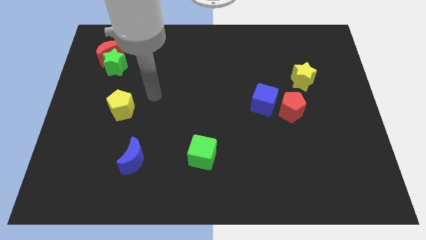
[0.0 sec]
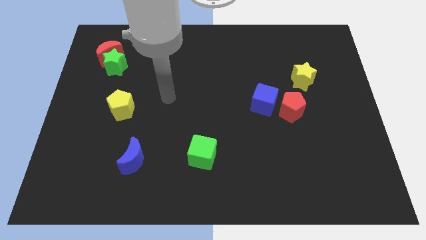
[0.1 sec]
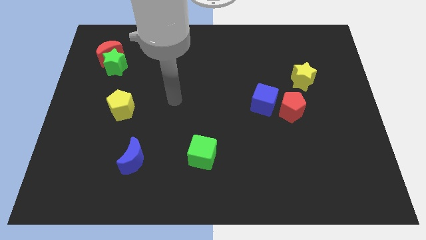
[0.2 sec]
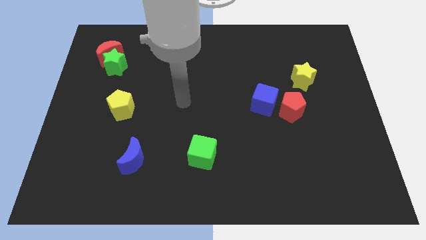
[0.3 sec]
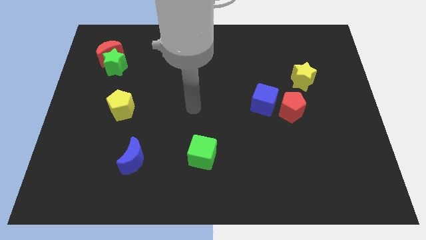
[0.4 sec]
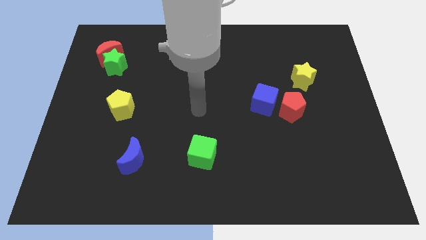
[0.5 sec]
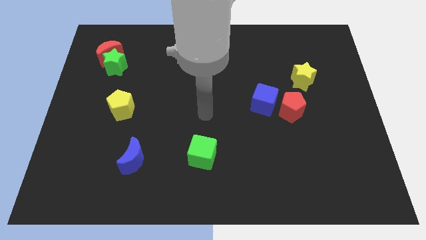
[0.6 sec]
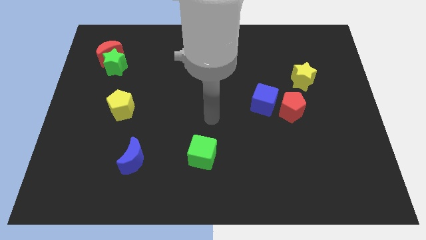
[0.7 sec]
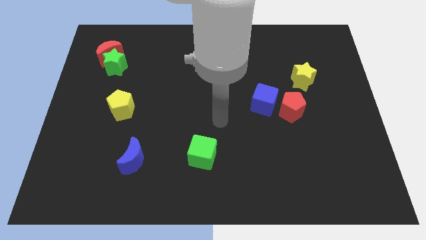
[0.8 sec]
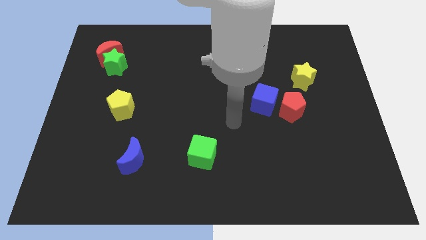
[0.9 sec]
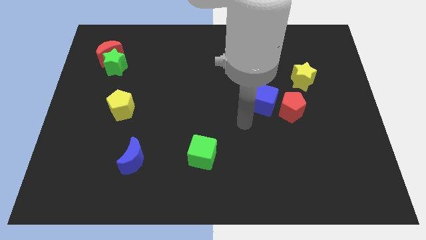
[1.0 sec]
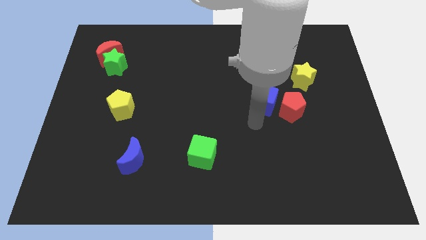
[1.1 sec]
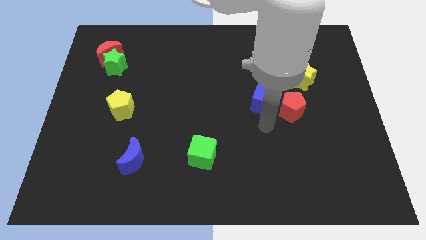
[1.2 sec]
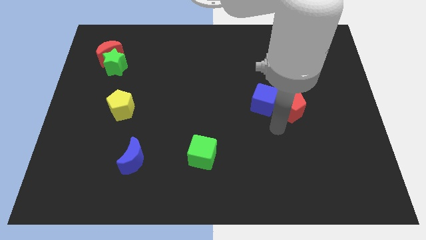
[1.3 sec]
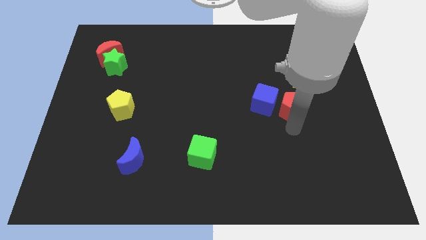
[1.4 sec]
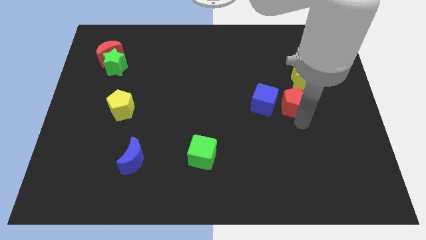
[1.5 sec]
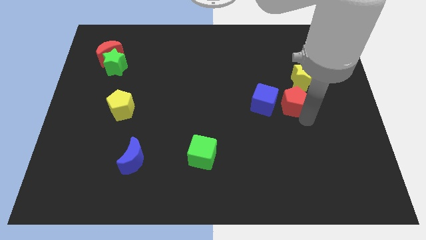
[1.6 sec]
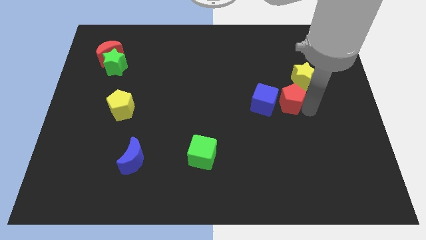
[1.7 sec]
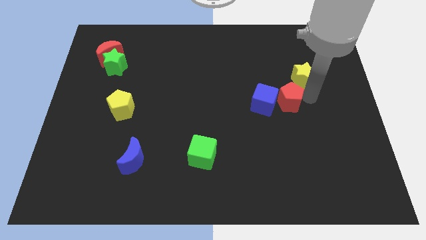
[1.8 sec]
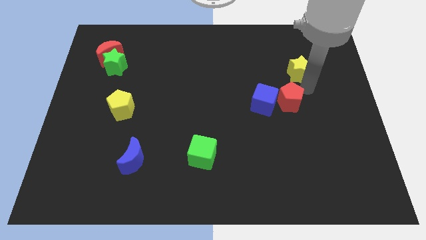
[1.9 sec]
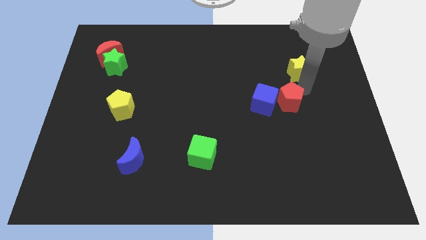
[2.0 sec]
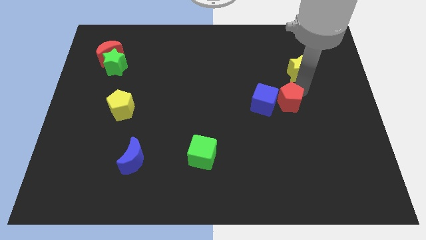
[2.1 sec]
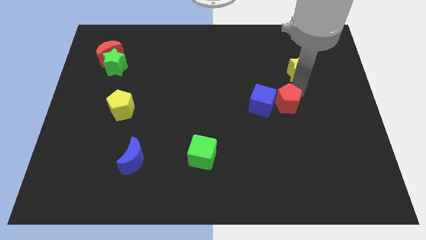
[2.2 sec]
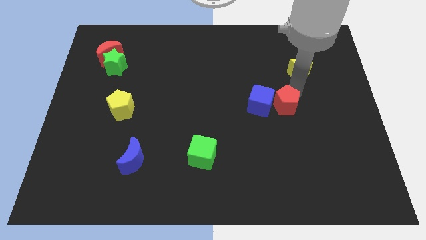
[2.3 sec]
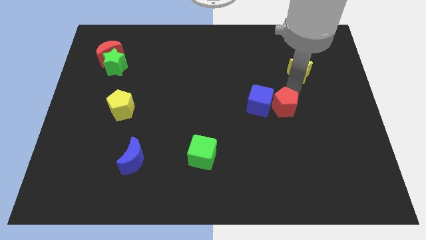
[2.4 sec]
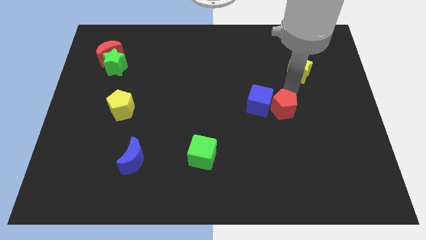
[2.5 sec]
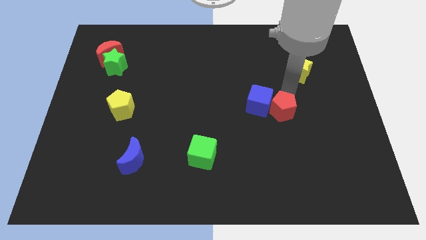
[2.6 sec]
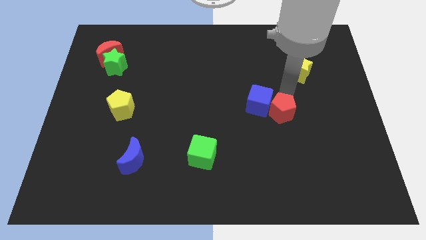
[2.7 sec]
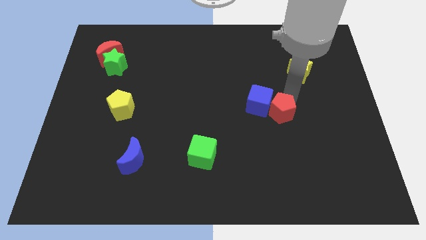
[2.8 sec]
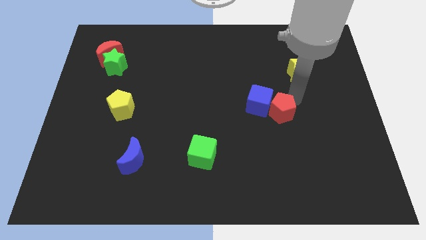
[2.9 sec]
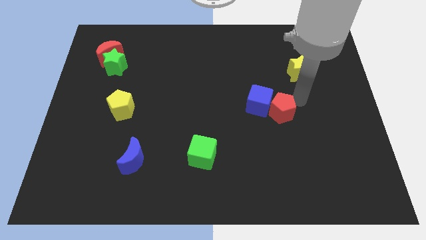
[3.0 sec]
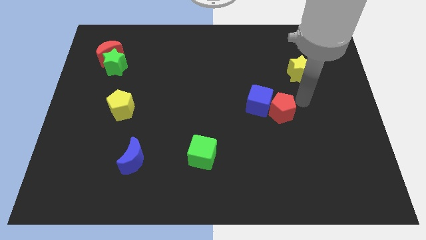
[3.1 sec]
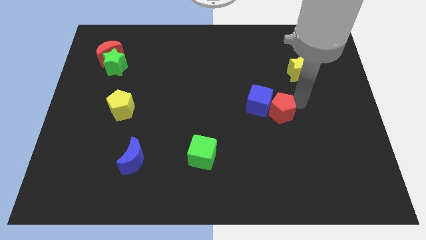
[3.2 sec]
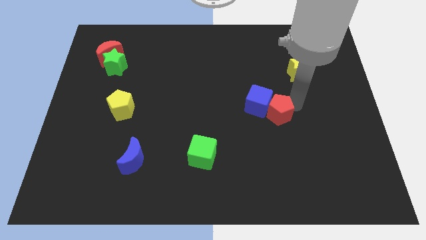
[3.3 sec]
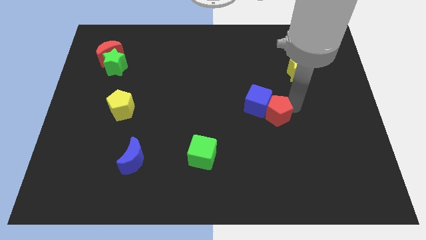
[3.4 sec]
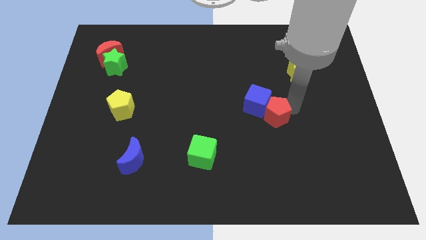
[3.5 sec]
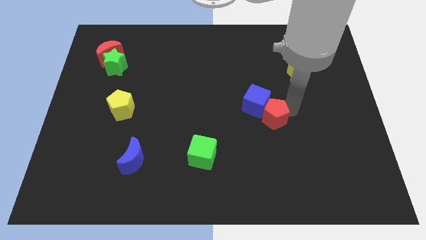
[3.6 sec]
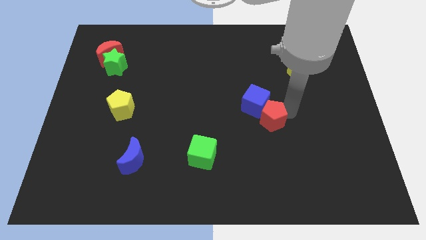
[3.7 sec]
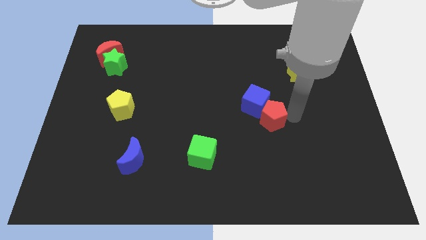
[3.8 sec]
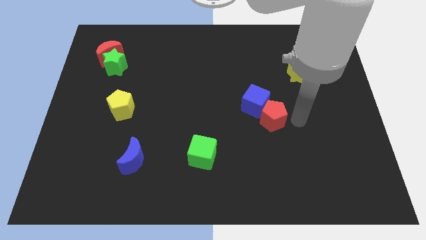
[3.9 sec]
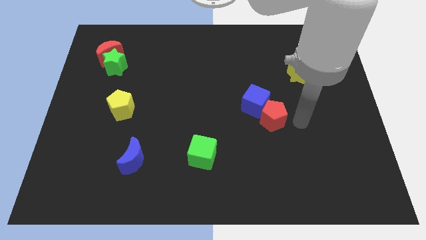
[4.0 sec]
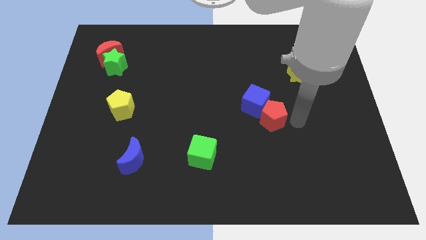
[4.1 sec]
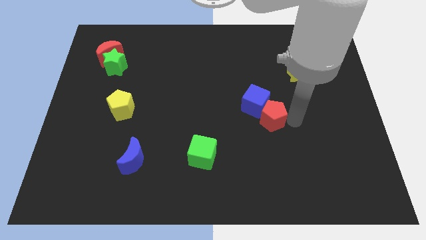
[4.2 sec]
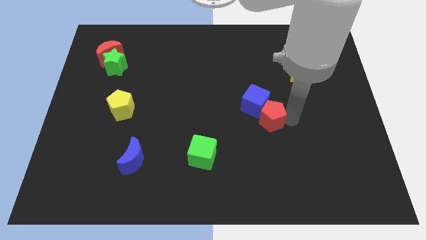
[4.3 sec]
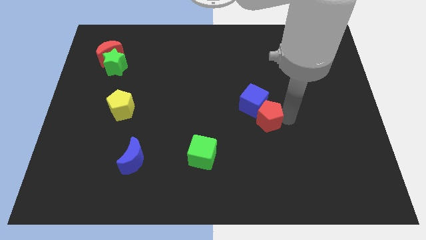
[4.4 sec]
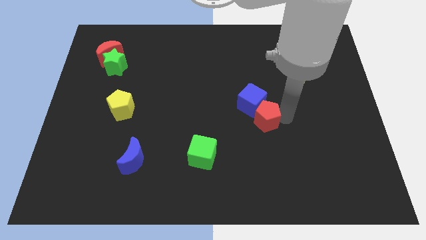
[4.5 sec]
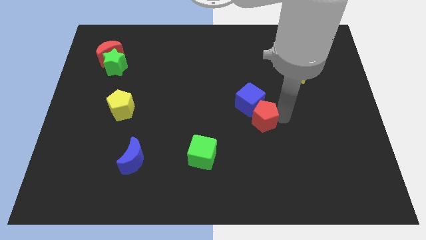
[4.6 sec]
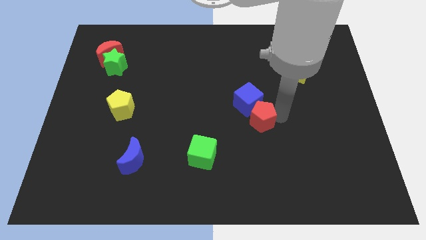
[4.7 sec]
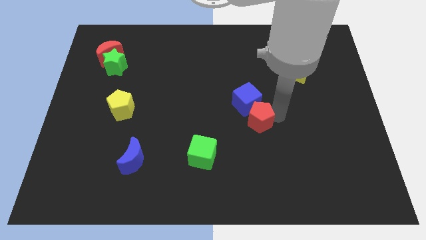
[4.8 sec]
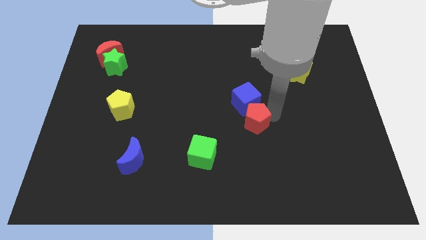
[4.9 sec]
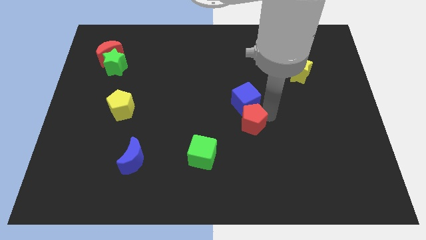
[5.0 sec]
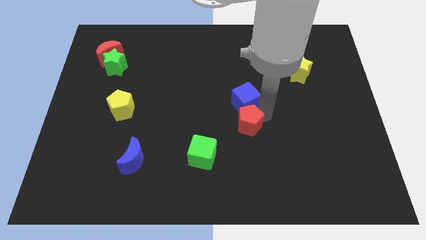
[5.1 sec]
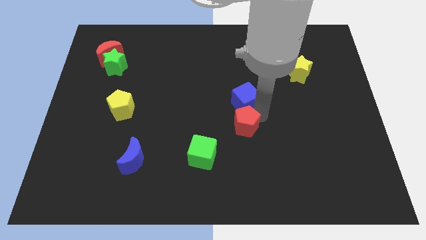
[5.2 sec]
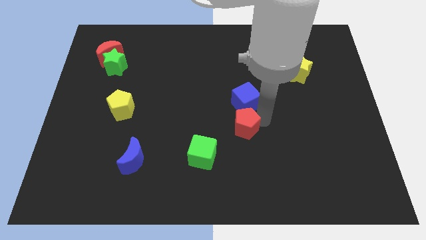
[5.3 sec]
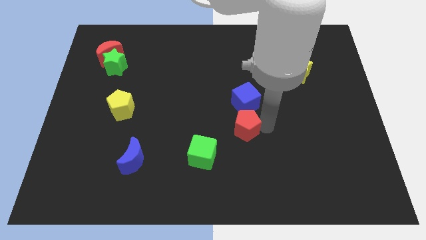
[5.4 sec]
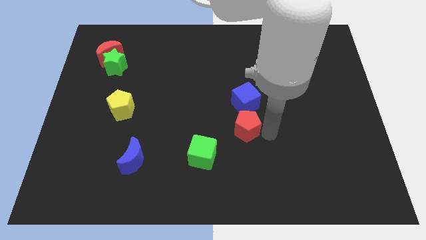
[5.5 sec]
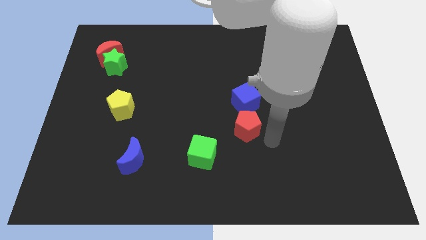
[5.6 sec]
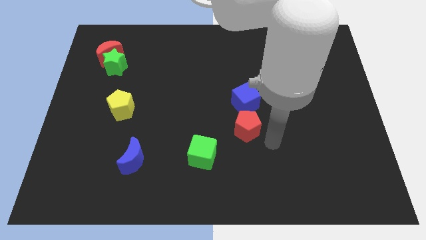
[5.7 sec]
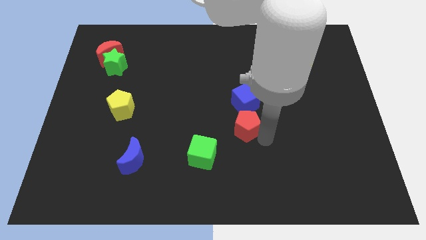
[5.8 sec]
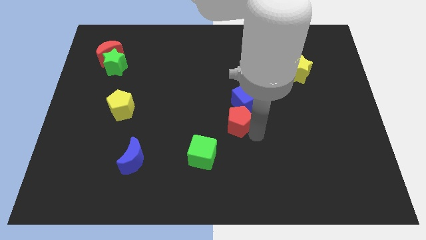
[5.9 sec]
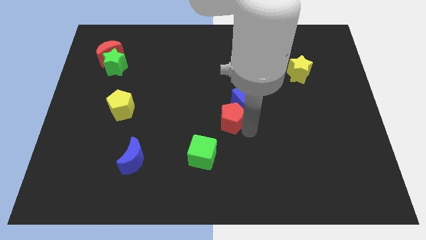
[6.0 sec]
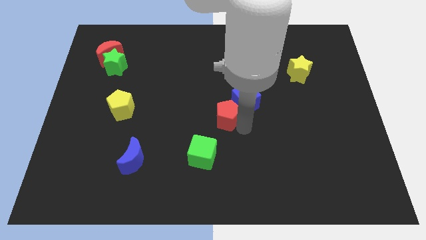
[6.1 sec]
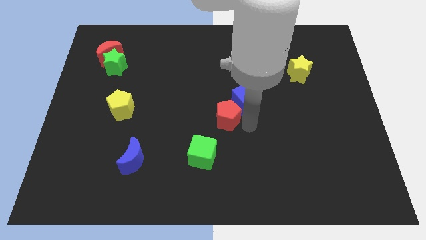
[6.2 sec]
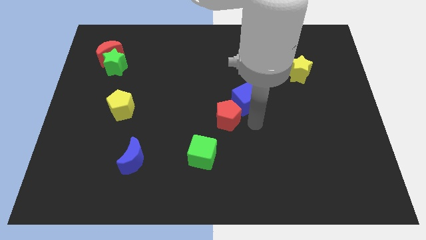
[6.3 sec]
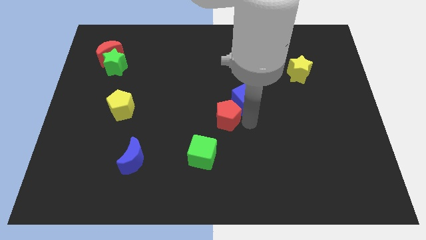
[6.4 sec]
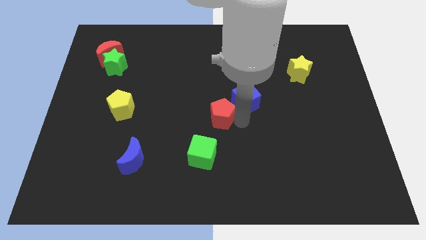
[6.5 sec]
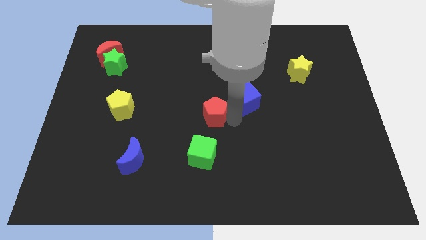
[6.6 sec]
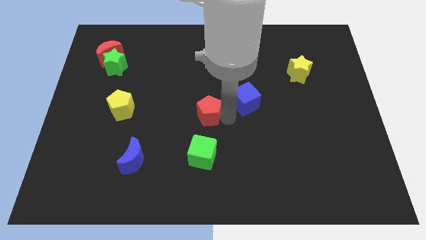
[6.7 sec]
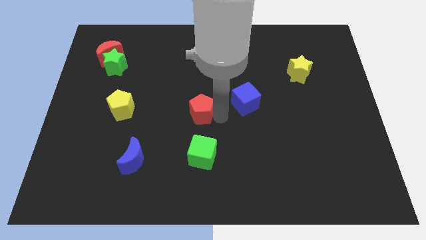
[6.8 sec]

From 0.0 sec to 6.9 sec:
move the red pentagon left

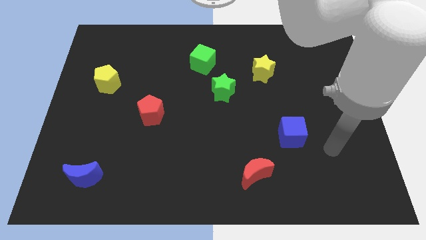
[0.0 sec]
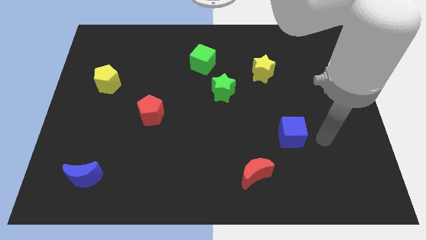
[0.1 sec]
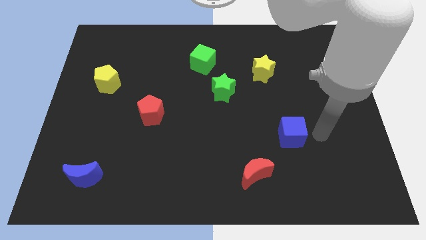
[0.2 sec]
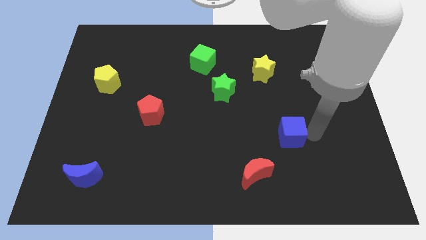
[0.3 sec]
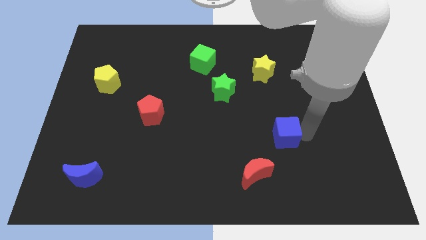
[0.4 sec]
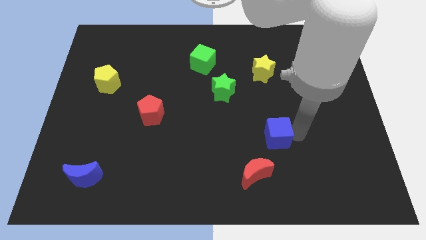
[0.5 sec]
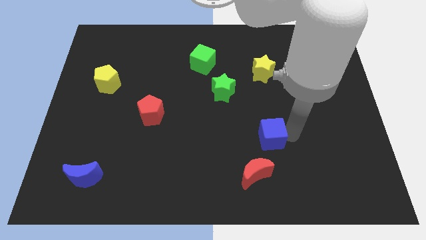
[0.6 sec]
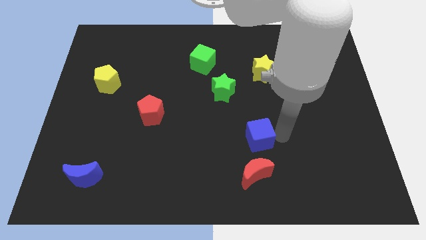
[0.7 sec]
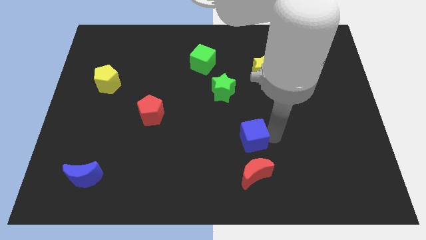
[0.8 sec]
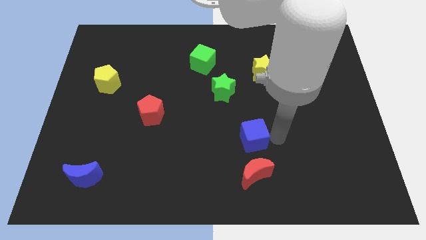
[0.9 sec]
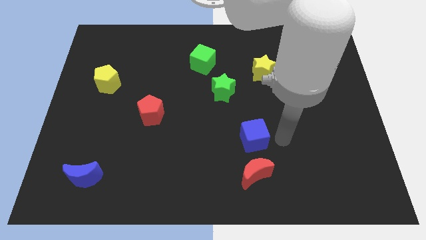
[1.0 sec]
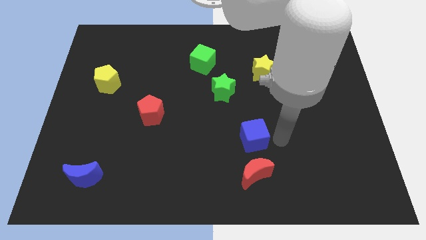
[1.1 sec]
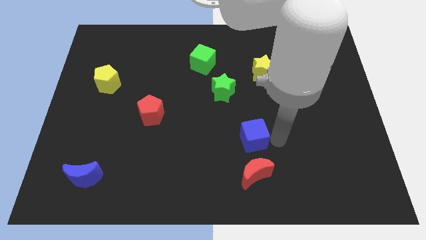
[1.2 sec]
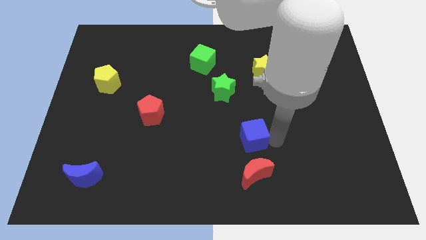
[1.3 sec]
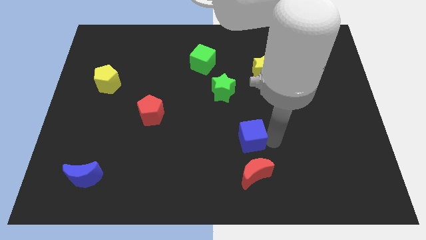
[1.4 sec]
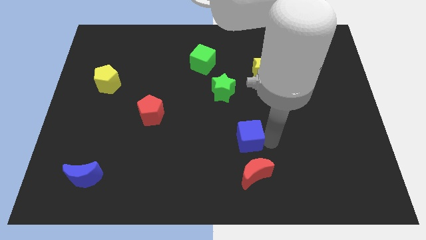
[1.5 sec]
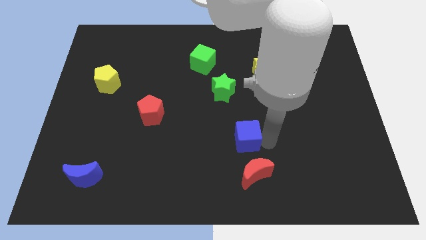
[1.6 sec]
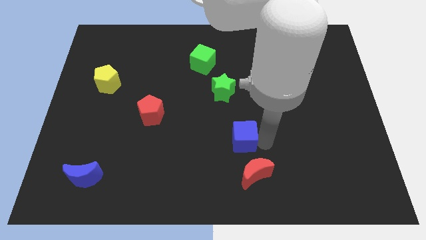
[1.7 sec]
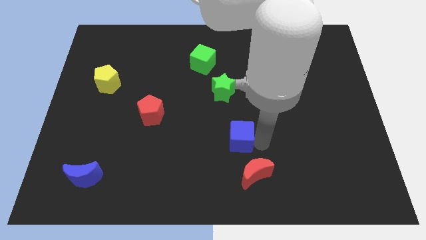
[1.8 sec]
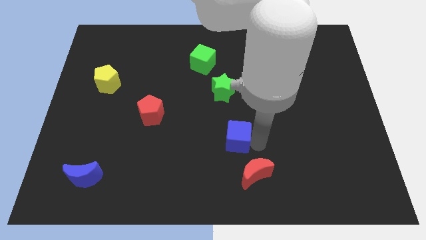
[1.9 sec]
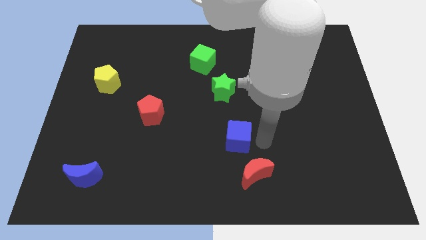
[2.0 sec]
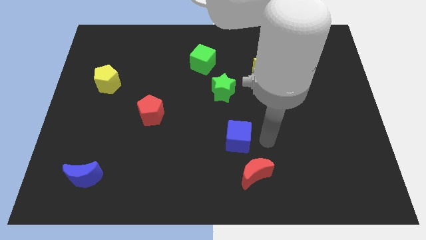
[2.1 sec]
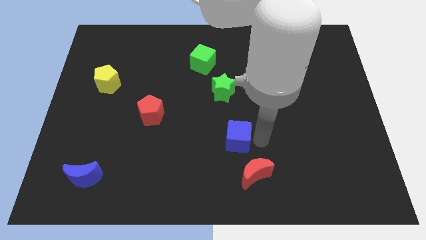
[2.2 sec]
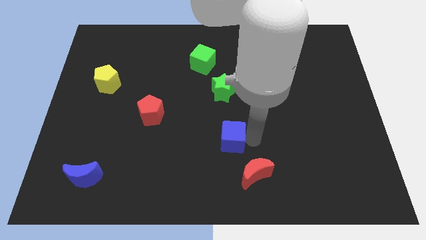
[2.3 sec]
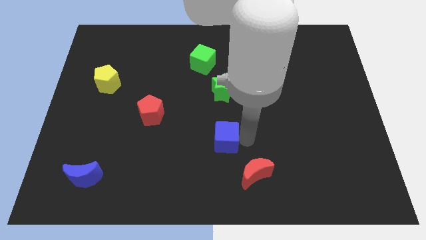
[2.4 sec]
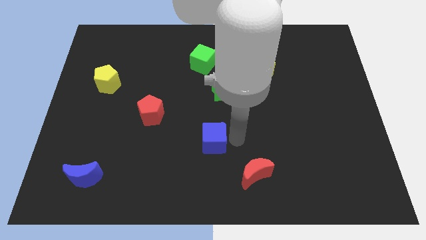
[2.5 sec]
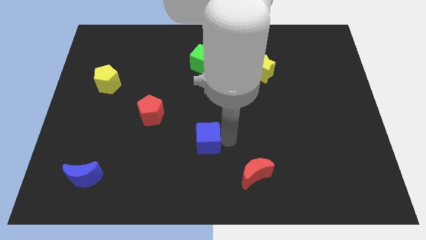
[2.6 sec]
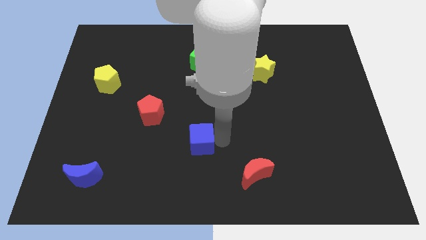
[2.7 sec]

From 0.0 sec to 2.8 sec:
move the blue cube to the left
